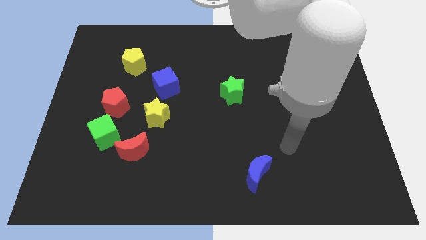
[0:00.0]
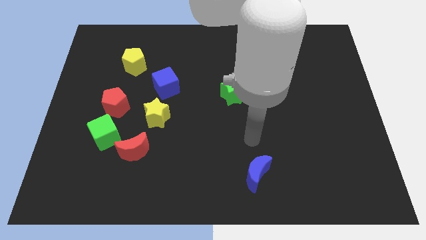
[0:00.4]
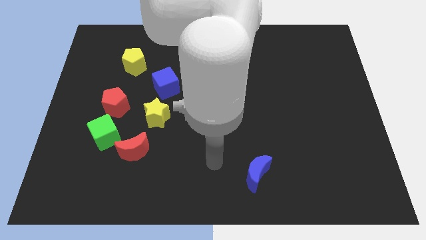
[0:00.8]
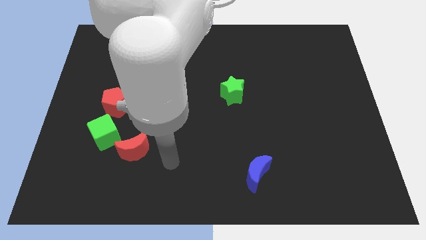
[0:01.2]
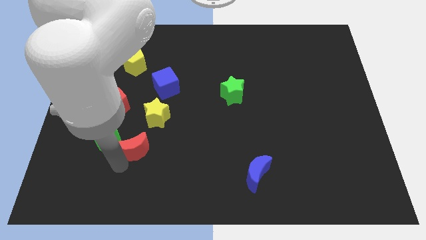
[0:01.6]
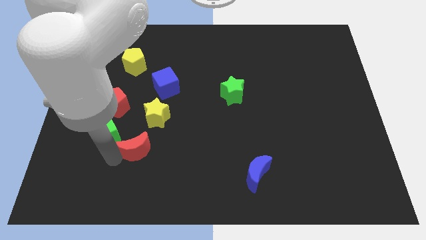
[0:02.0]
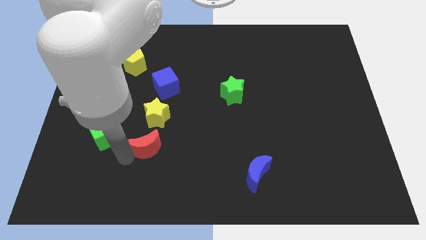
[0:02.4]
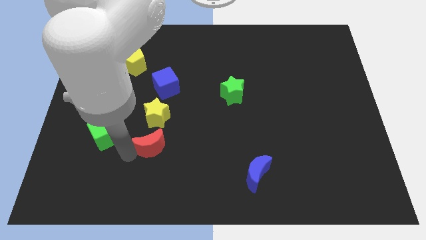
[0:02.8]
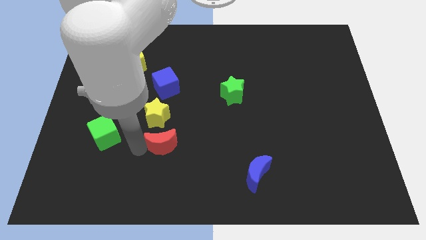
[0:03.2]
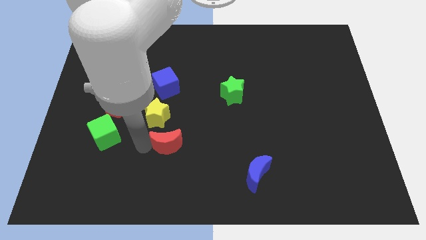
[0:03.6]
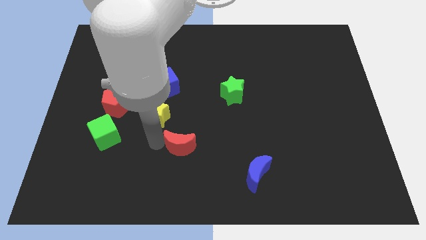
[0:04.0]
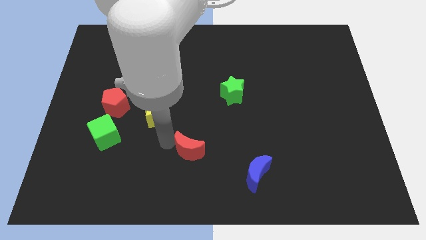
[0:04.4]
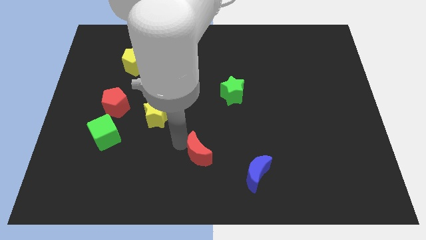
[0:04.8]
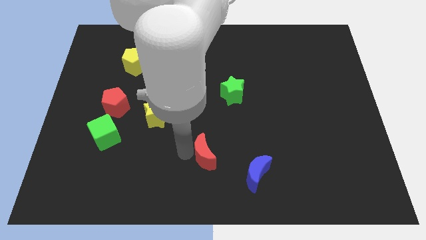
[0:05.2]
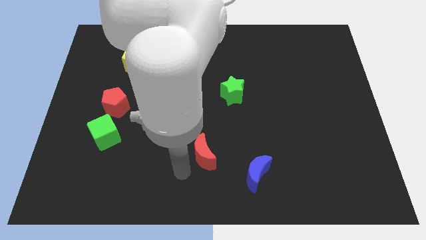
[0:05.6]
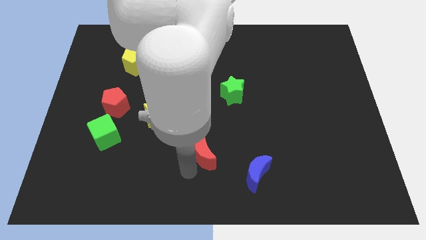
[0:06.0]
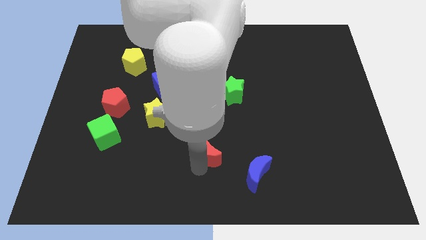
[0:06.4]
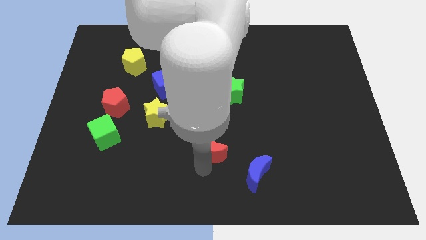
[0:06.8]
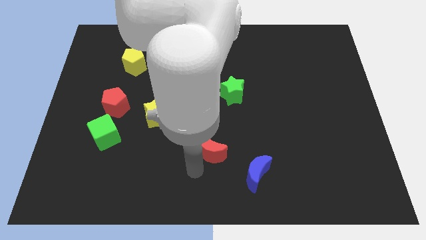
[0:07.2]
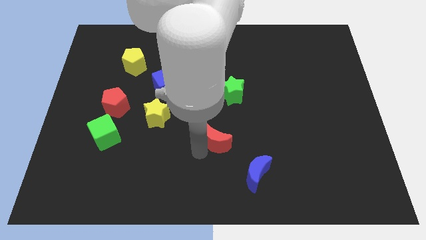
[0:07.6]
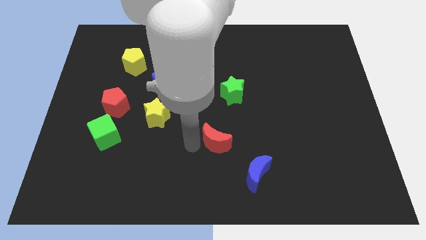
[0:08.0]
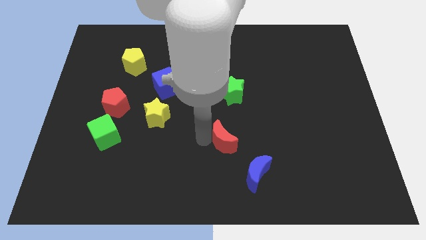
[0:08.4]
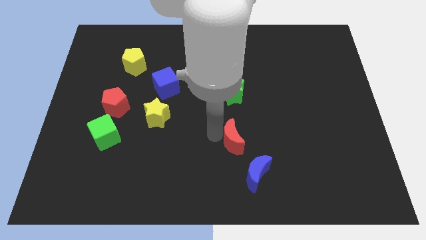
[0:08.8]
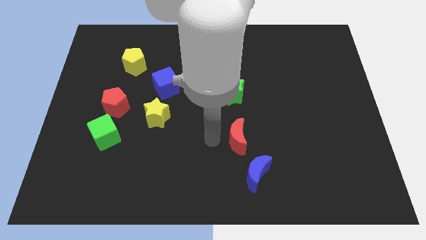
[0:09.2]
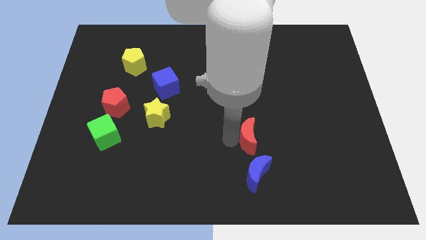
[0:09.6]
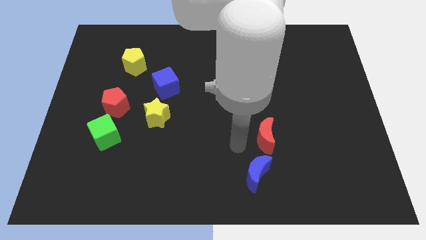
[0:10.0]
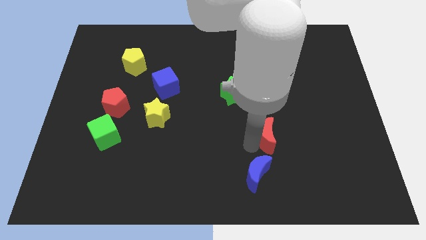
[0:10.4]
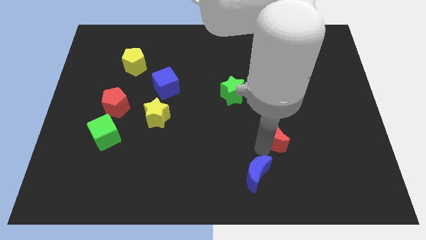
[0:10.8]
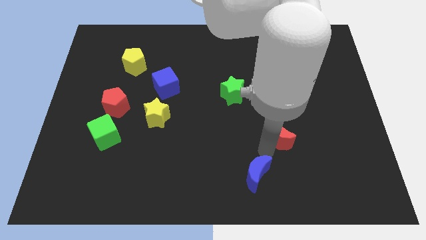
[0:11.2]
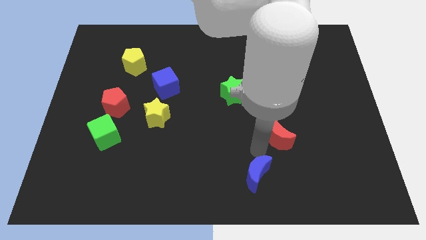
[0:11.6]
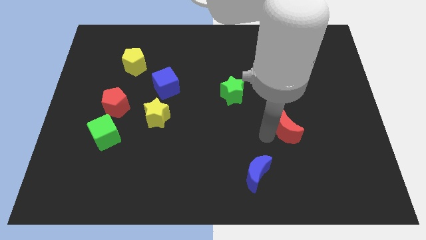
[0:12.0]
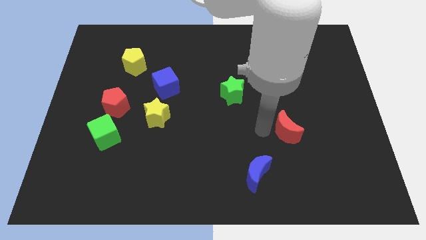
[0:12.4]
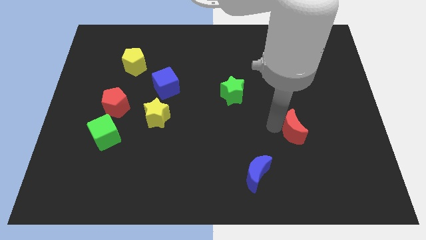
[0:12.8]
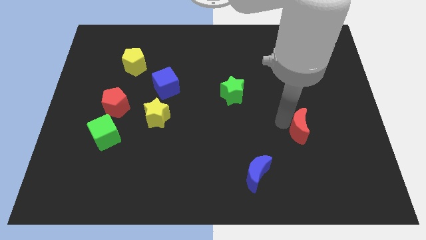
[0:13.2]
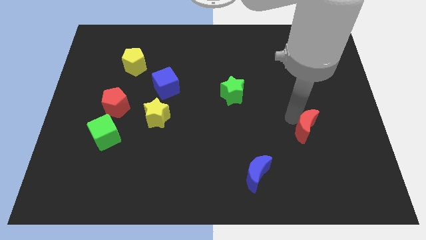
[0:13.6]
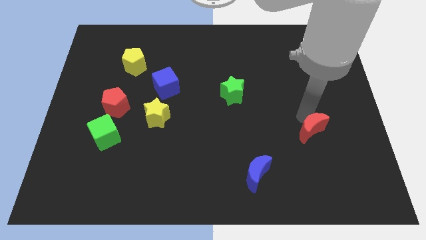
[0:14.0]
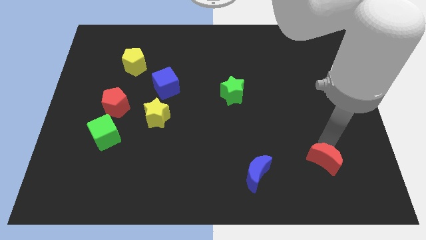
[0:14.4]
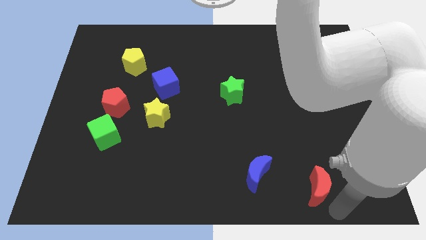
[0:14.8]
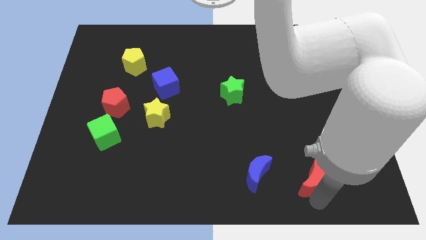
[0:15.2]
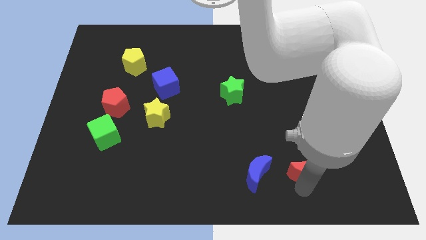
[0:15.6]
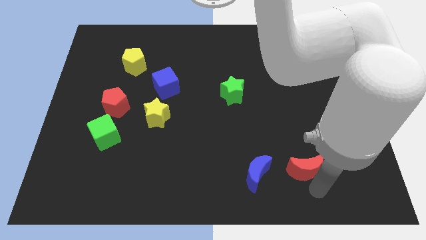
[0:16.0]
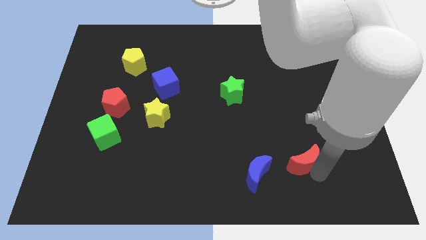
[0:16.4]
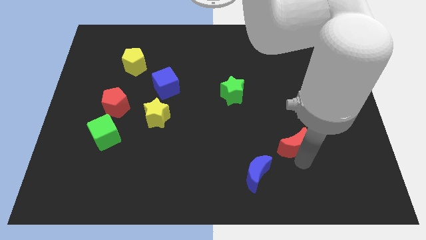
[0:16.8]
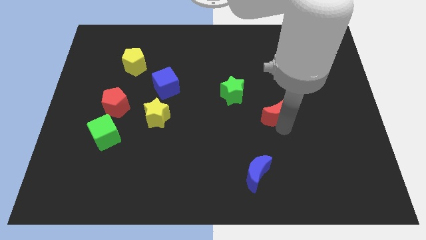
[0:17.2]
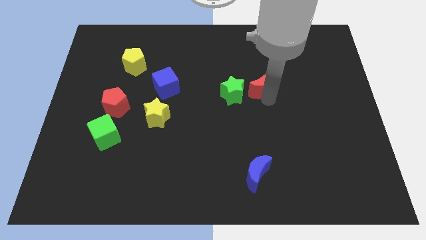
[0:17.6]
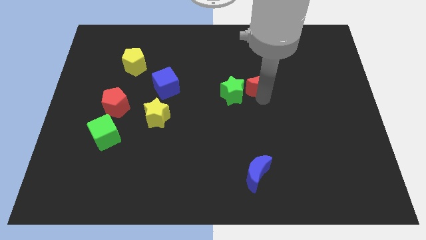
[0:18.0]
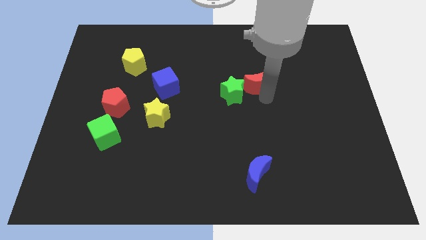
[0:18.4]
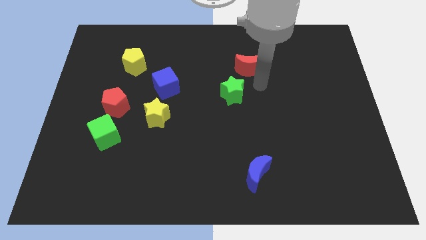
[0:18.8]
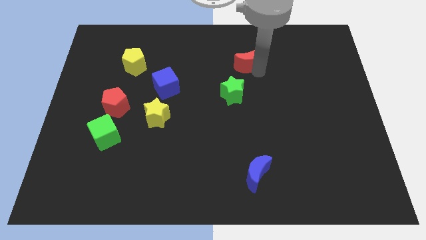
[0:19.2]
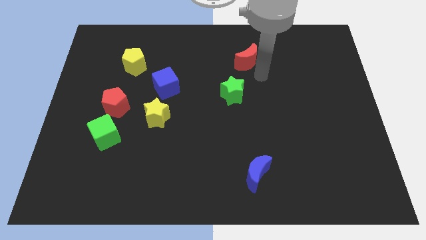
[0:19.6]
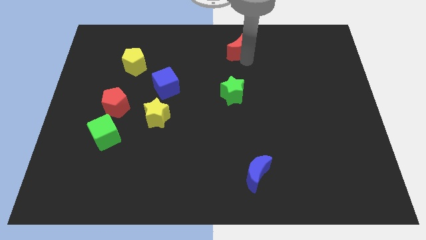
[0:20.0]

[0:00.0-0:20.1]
push the red moon to the top

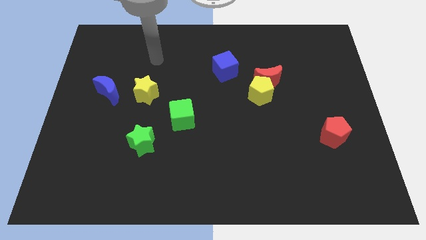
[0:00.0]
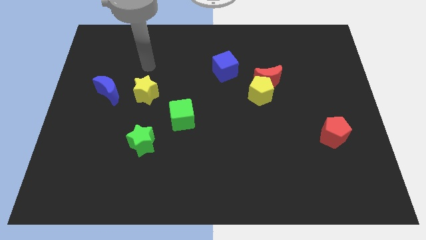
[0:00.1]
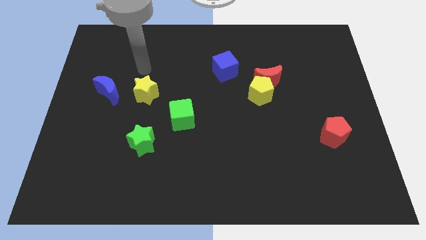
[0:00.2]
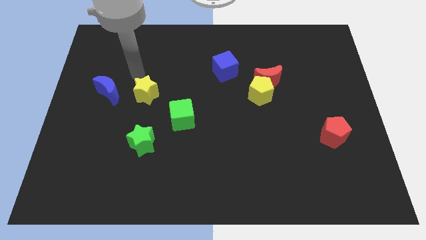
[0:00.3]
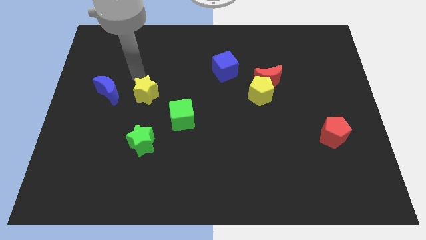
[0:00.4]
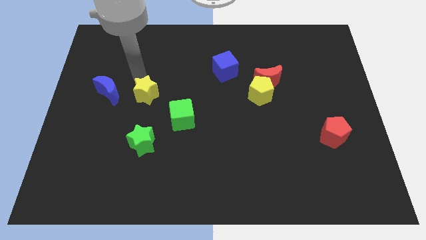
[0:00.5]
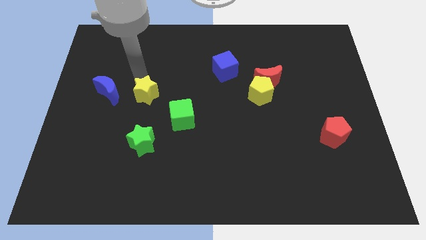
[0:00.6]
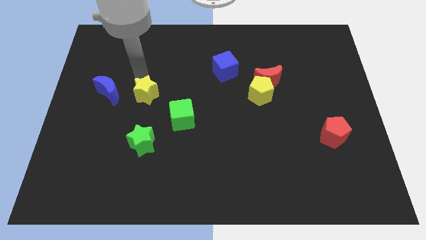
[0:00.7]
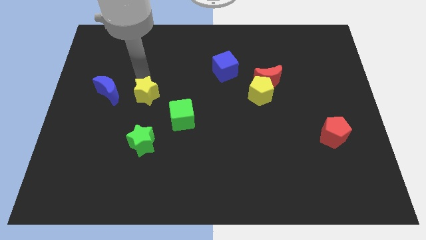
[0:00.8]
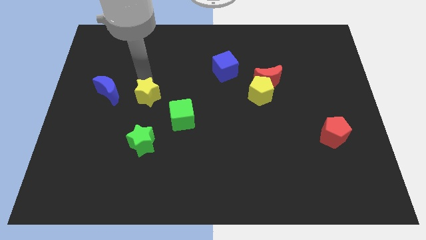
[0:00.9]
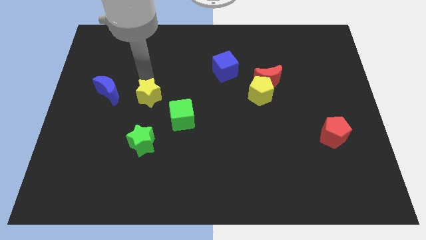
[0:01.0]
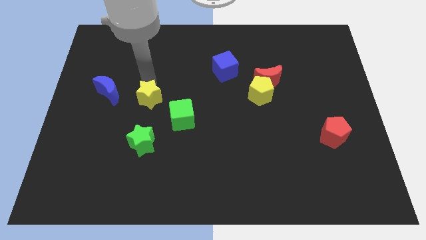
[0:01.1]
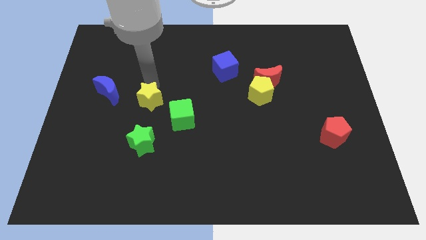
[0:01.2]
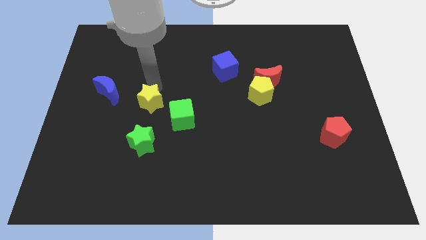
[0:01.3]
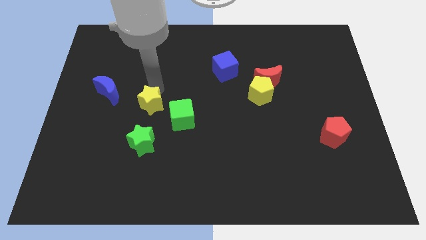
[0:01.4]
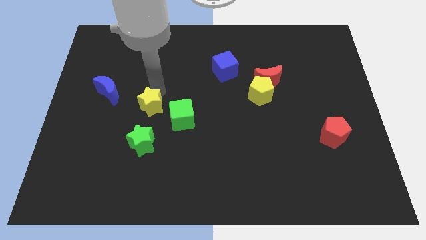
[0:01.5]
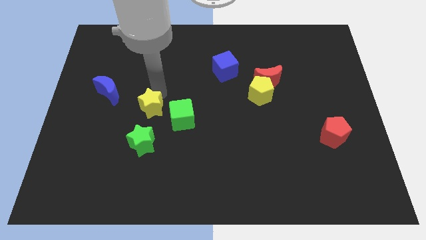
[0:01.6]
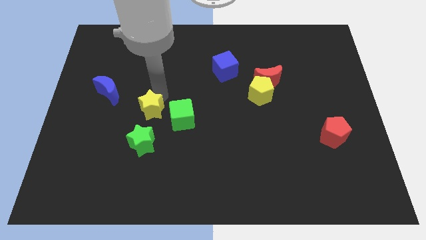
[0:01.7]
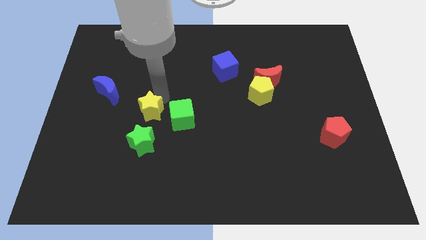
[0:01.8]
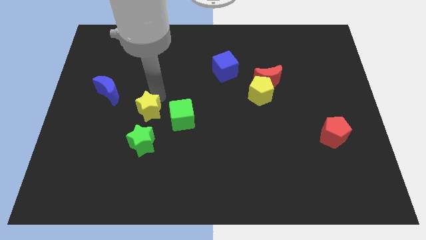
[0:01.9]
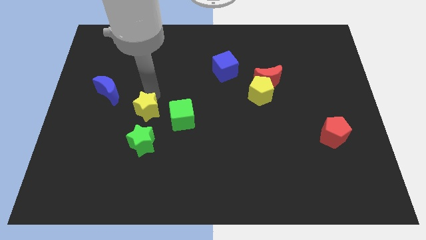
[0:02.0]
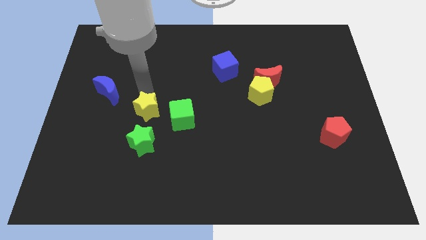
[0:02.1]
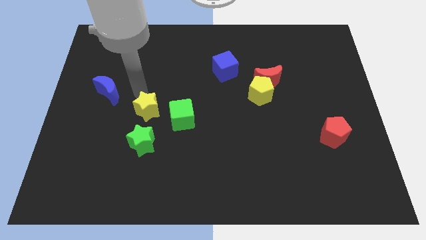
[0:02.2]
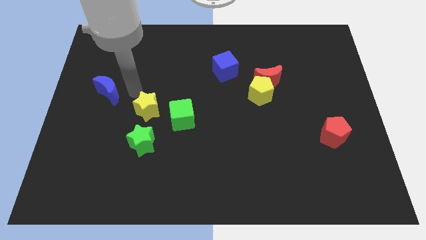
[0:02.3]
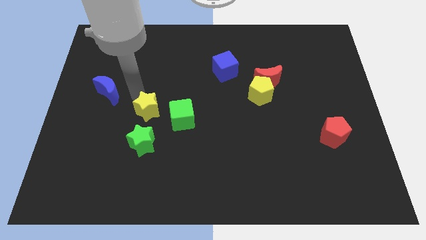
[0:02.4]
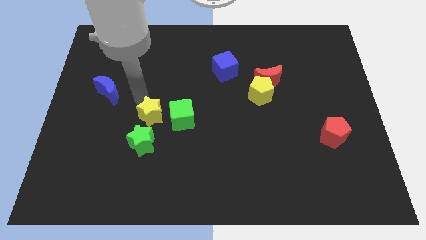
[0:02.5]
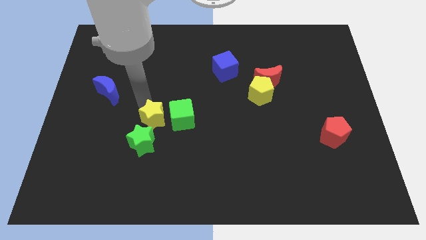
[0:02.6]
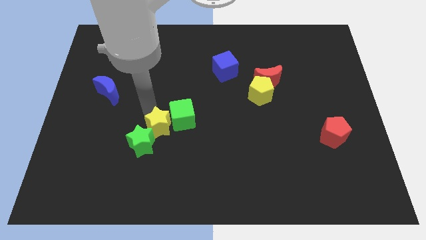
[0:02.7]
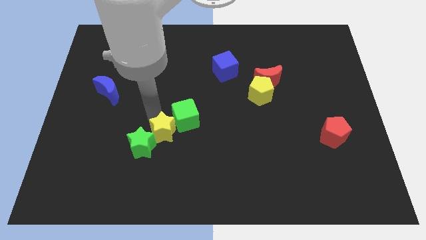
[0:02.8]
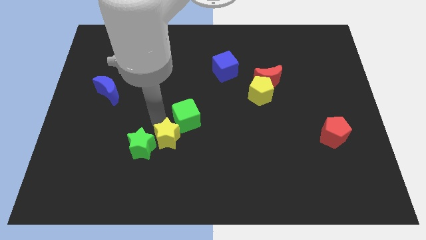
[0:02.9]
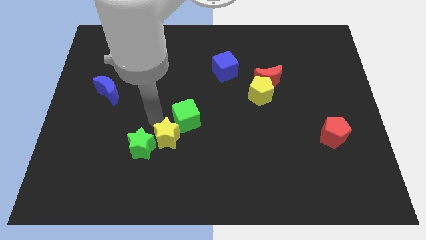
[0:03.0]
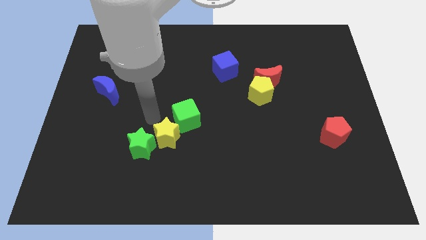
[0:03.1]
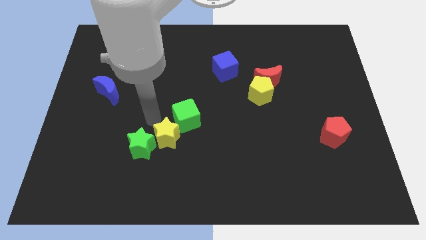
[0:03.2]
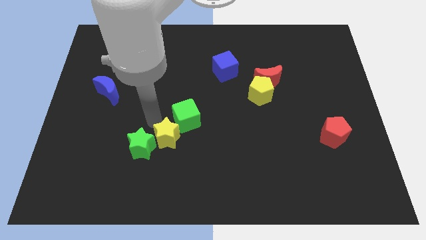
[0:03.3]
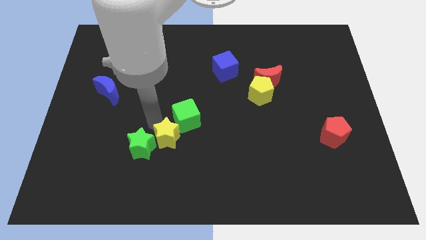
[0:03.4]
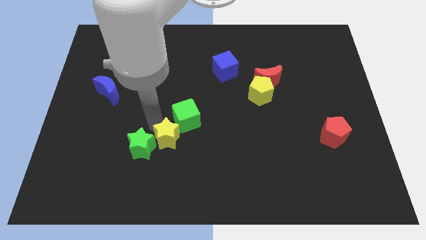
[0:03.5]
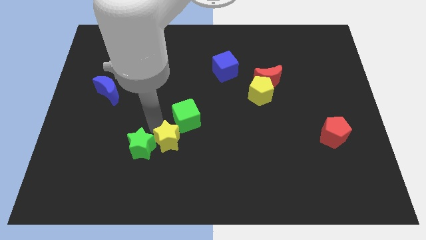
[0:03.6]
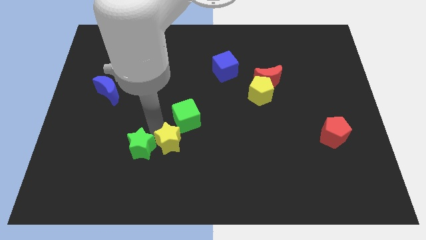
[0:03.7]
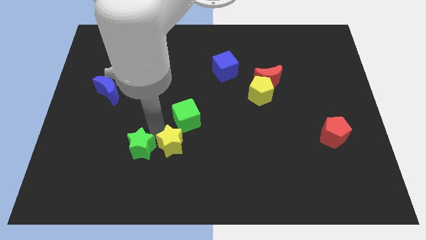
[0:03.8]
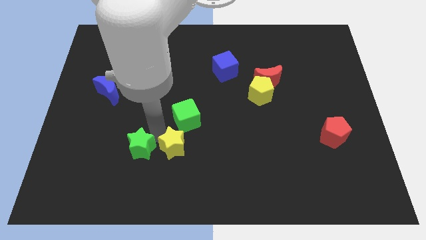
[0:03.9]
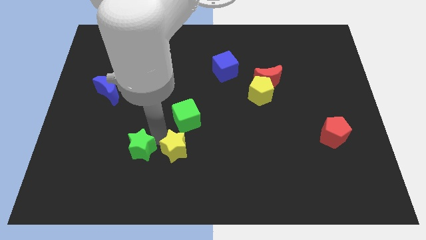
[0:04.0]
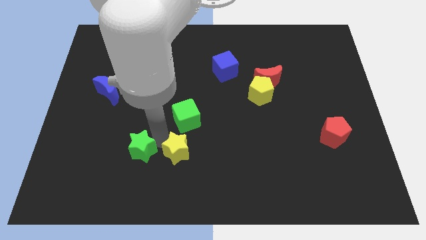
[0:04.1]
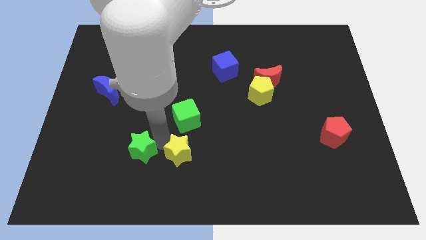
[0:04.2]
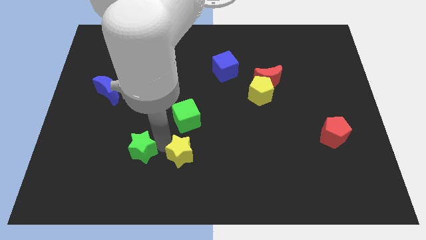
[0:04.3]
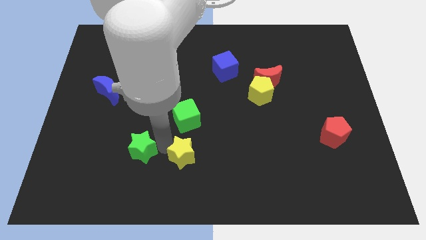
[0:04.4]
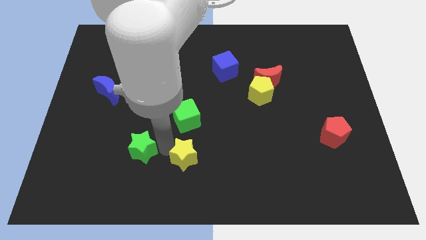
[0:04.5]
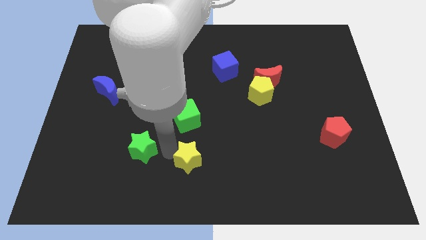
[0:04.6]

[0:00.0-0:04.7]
slide the yellow star to the bottom side
